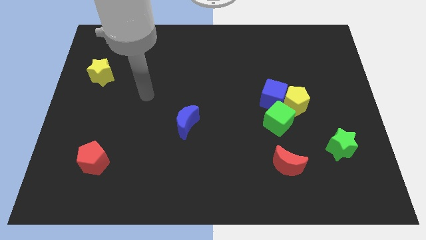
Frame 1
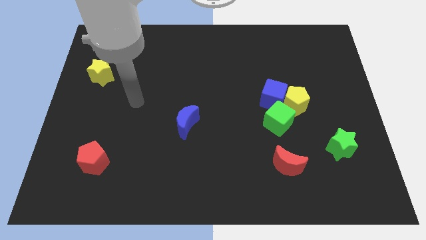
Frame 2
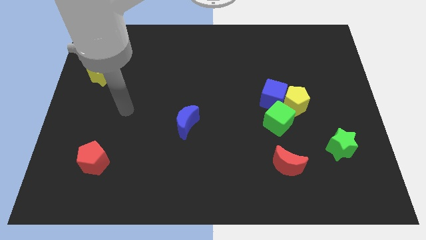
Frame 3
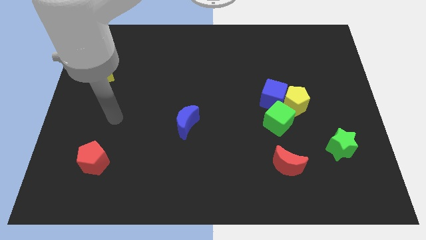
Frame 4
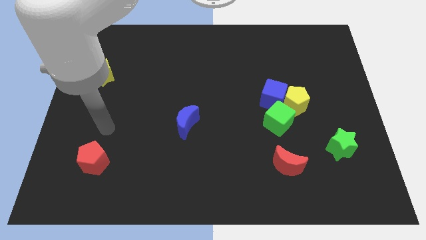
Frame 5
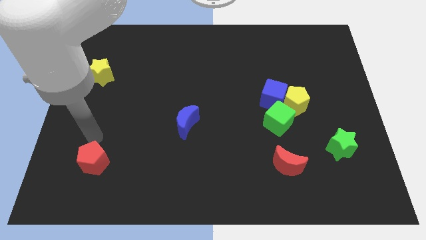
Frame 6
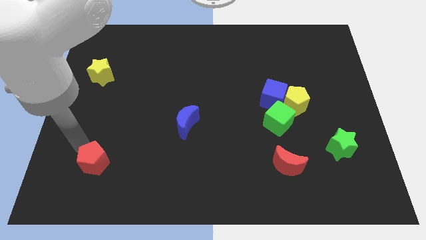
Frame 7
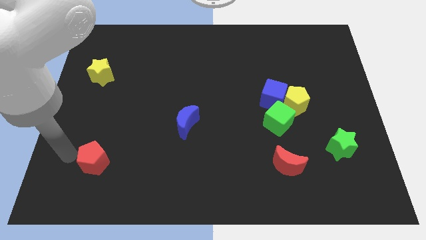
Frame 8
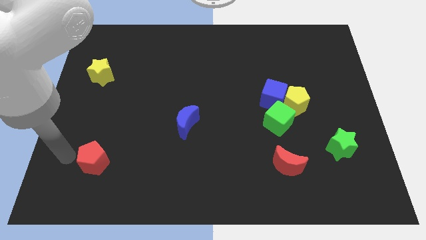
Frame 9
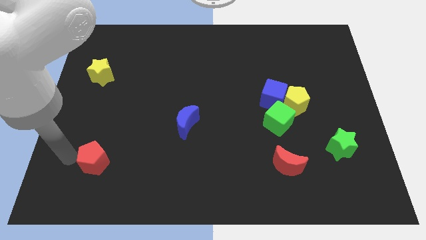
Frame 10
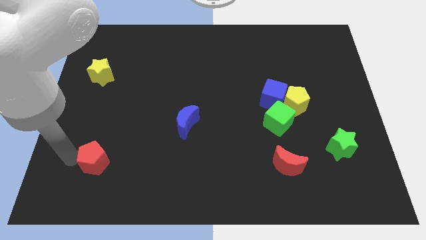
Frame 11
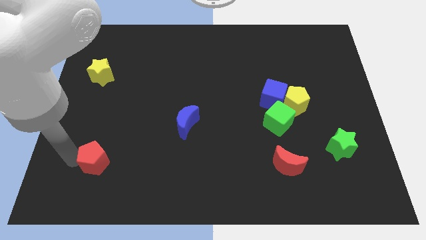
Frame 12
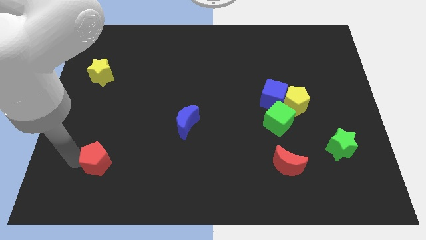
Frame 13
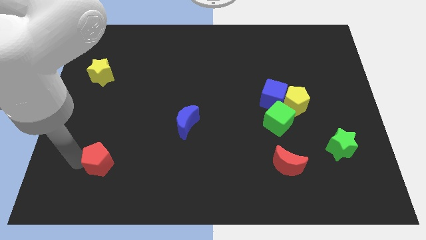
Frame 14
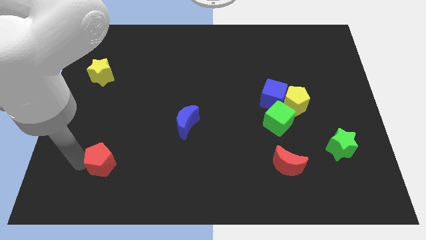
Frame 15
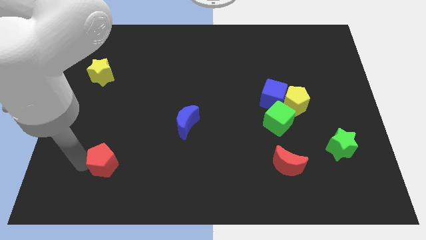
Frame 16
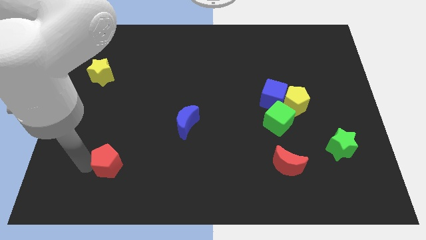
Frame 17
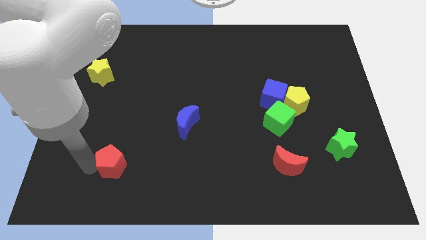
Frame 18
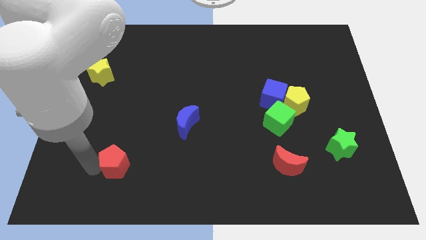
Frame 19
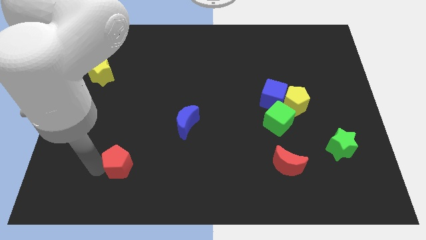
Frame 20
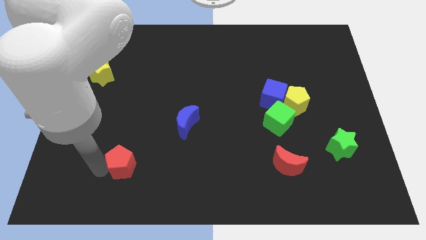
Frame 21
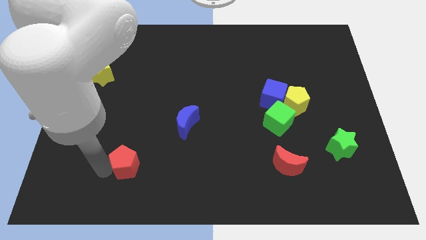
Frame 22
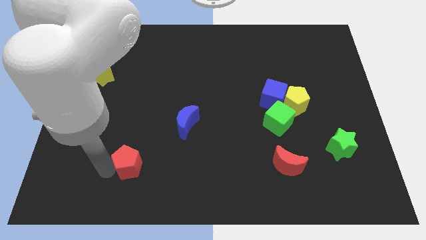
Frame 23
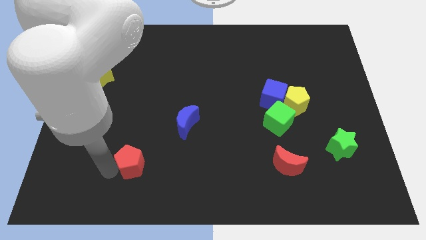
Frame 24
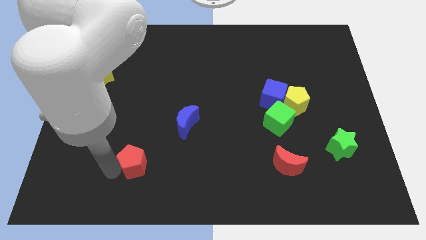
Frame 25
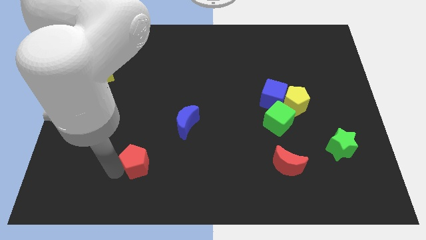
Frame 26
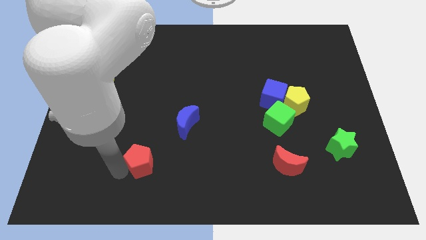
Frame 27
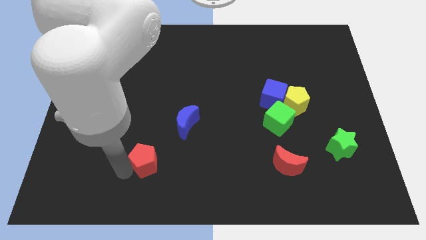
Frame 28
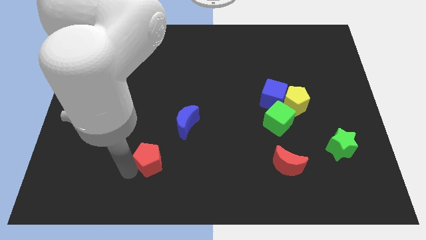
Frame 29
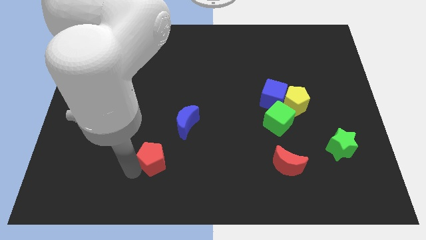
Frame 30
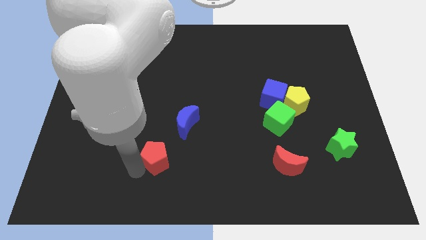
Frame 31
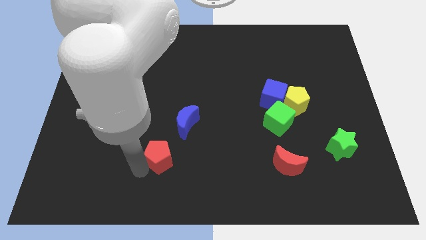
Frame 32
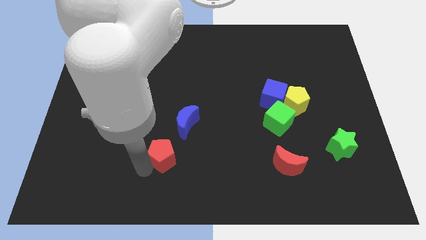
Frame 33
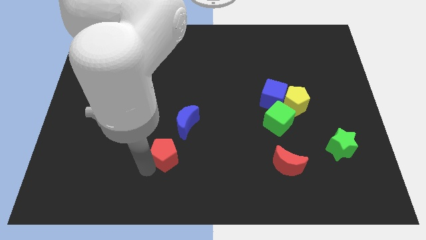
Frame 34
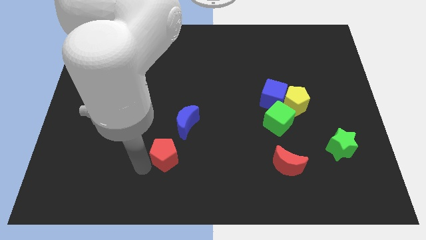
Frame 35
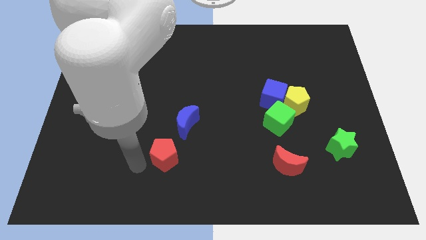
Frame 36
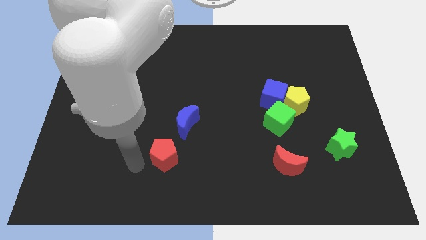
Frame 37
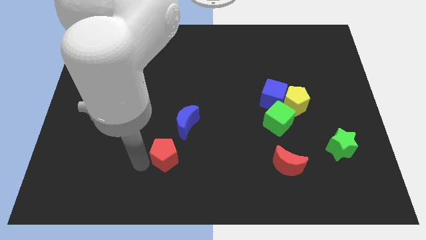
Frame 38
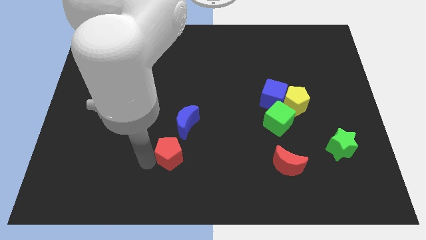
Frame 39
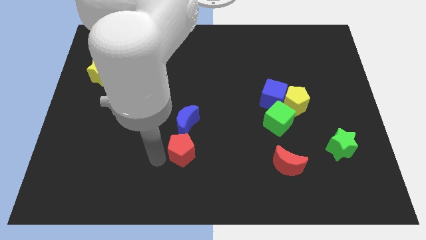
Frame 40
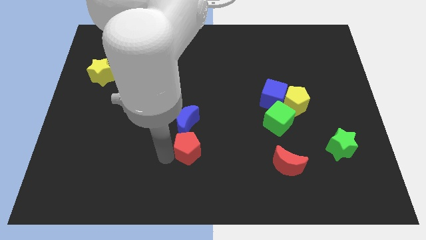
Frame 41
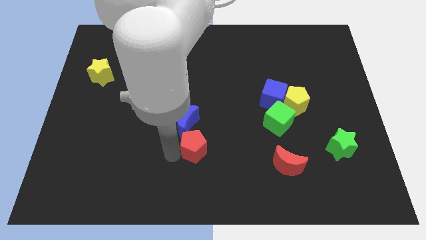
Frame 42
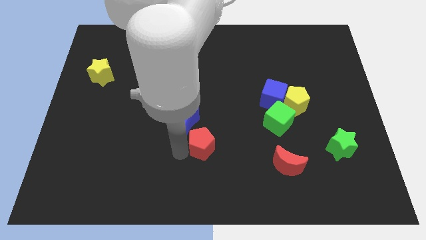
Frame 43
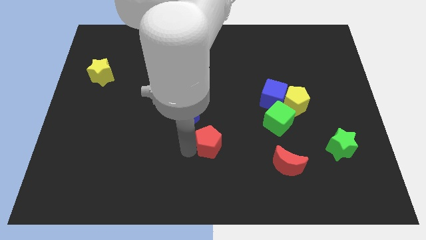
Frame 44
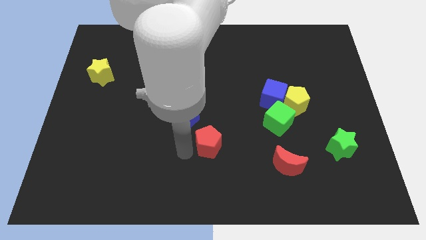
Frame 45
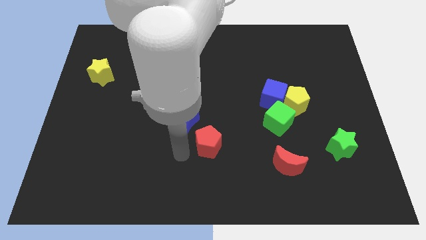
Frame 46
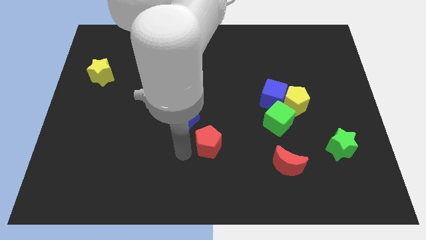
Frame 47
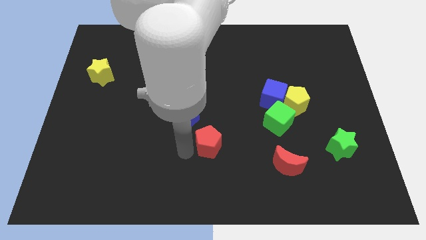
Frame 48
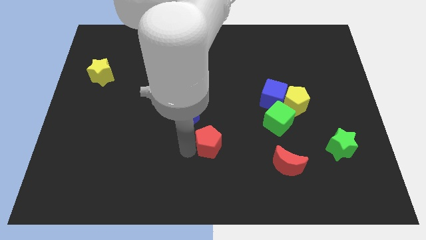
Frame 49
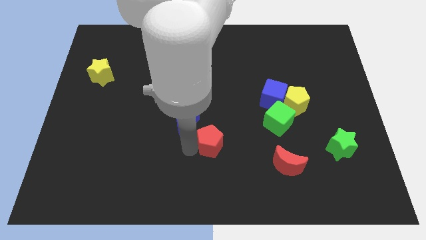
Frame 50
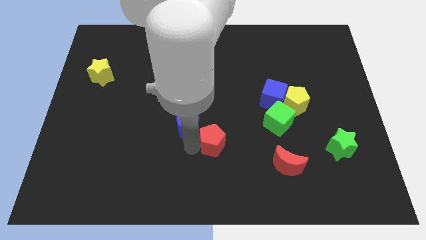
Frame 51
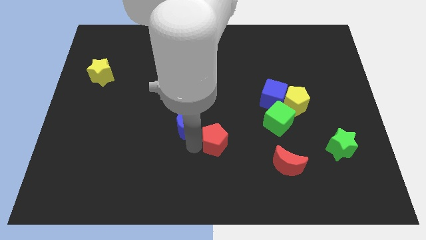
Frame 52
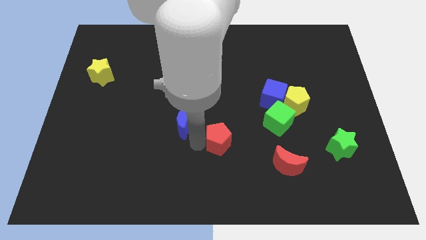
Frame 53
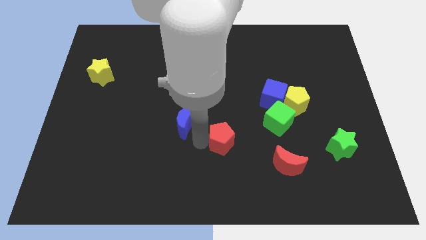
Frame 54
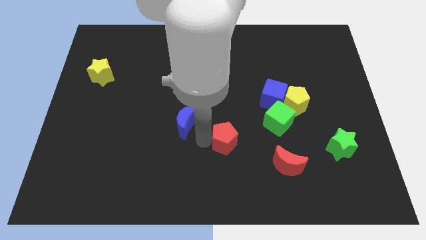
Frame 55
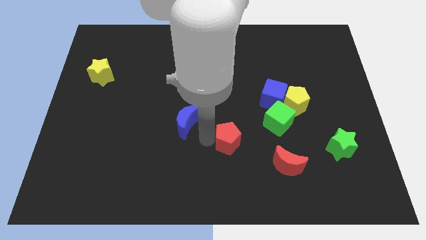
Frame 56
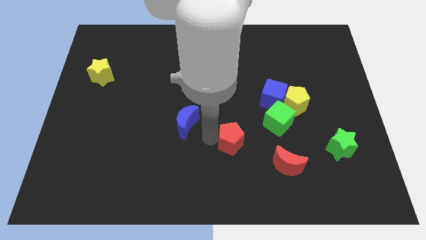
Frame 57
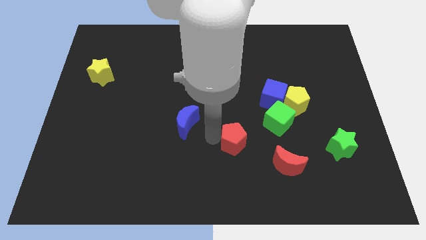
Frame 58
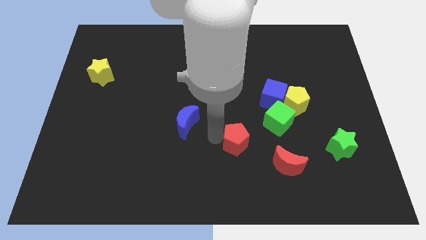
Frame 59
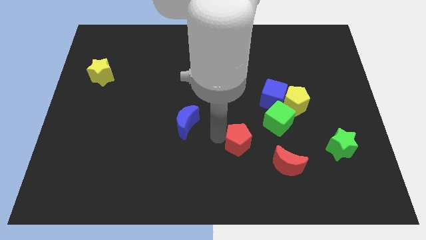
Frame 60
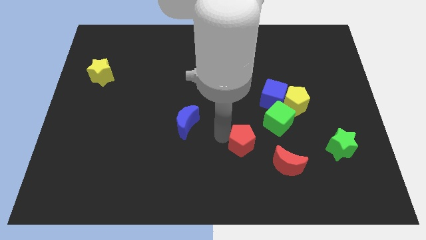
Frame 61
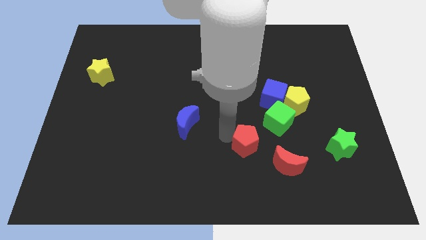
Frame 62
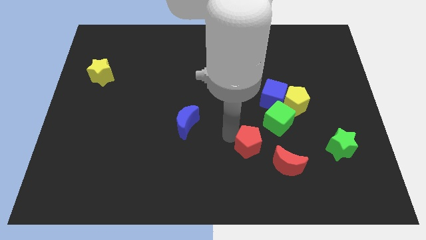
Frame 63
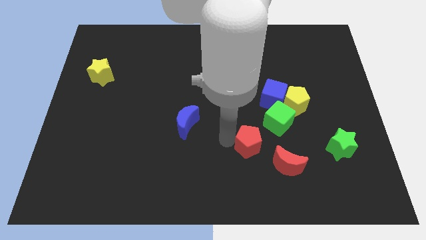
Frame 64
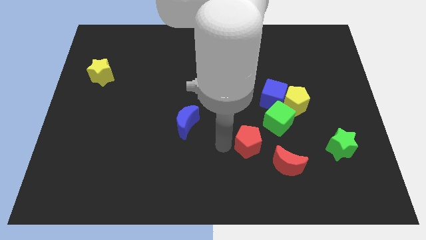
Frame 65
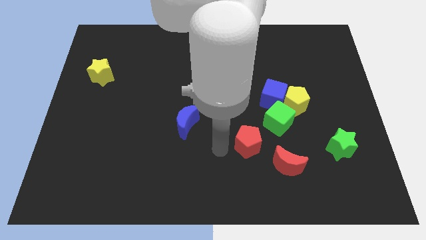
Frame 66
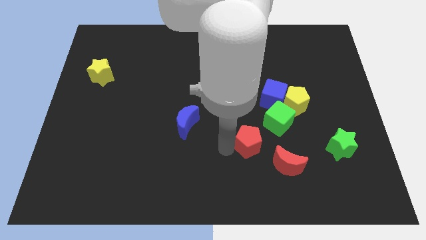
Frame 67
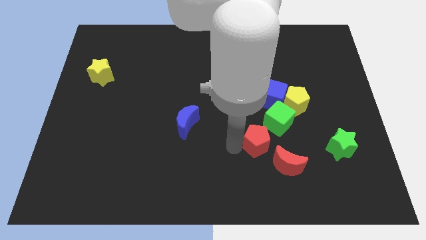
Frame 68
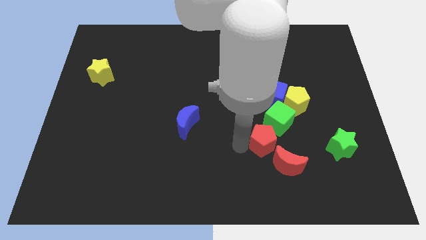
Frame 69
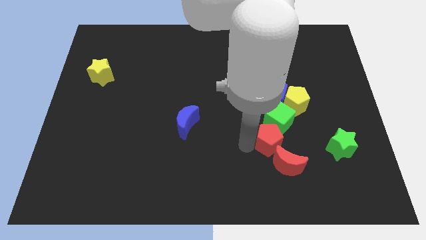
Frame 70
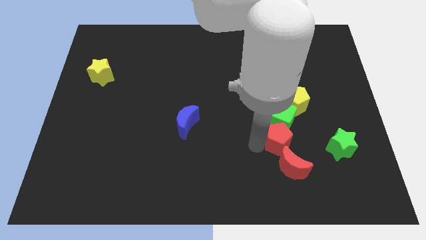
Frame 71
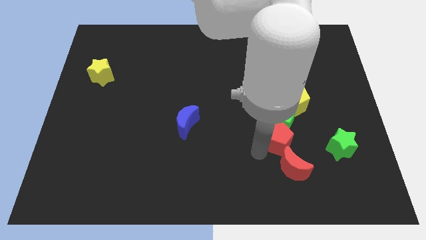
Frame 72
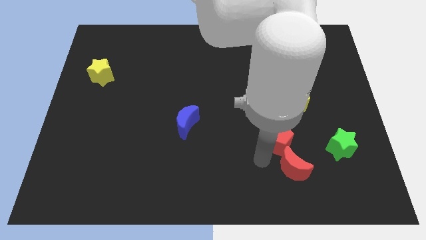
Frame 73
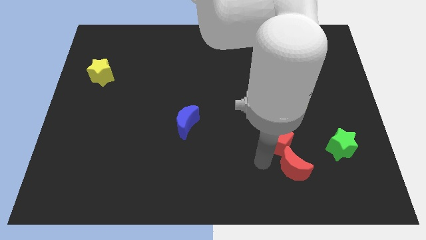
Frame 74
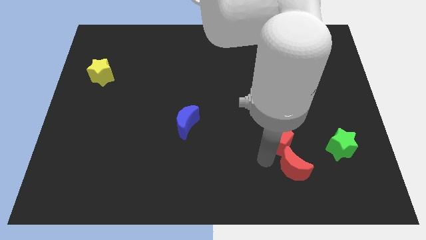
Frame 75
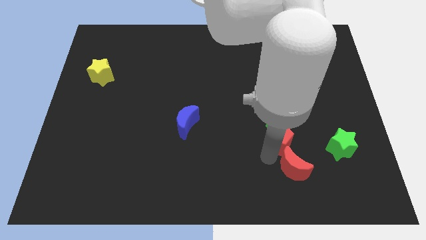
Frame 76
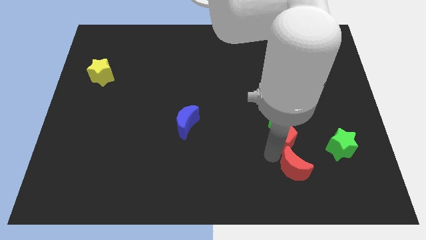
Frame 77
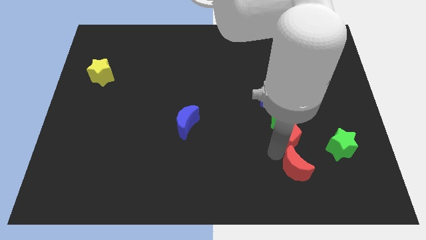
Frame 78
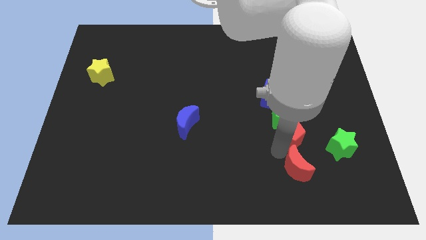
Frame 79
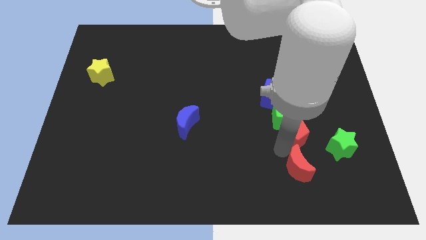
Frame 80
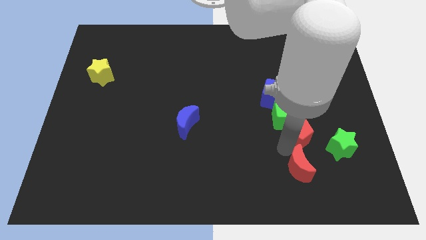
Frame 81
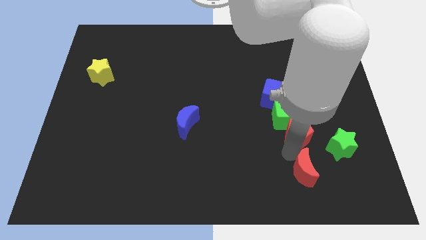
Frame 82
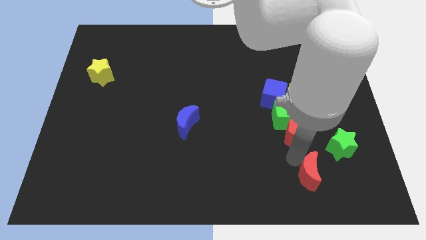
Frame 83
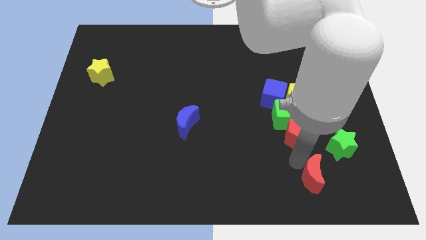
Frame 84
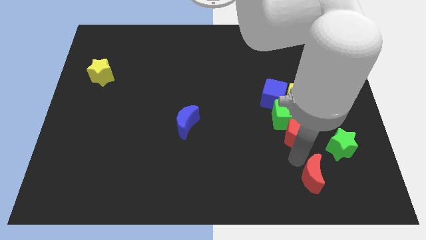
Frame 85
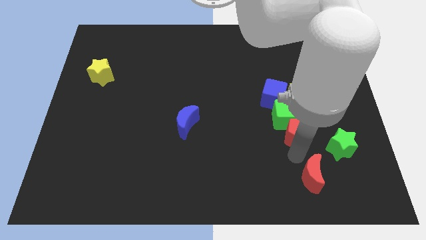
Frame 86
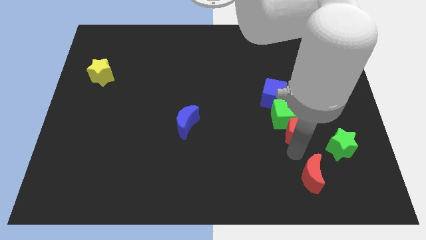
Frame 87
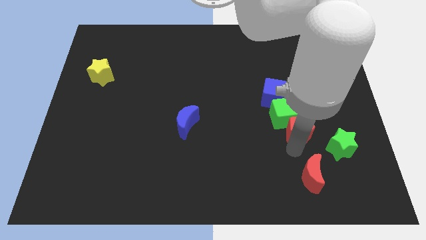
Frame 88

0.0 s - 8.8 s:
push the red pentagon to the bottom right side of the blue cube
